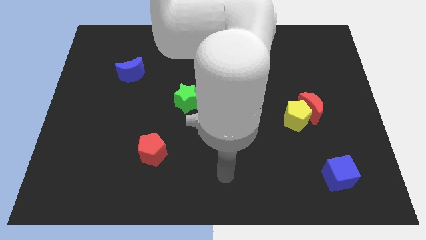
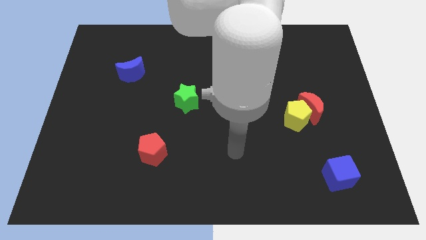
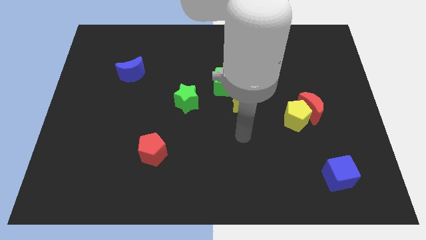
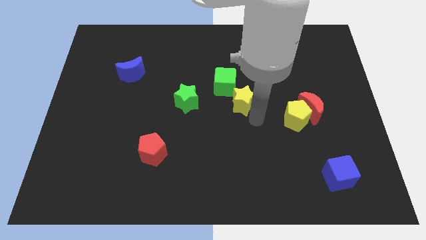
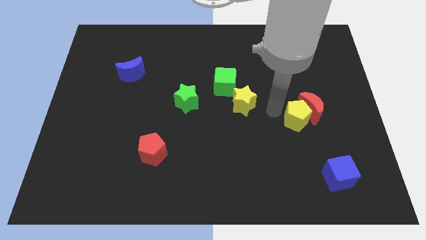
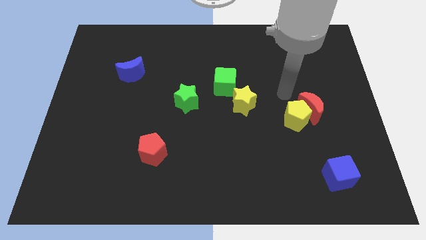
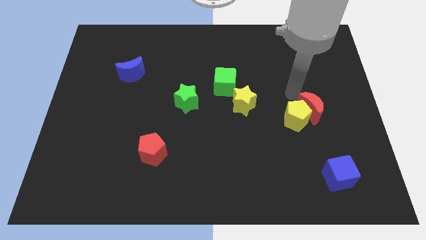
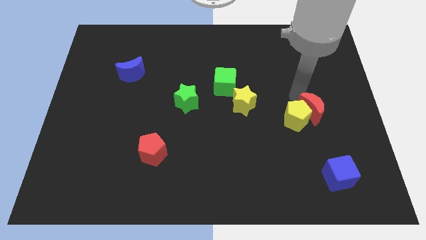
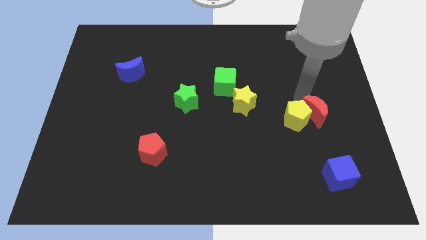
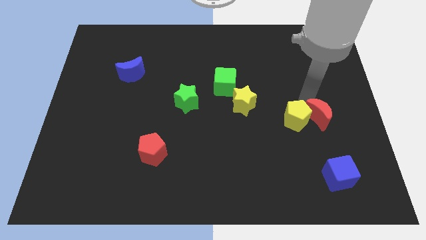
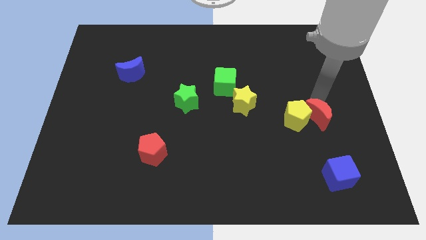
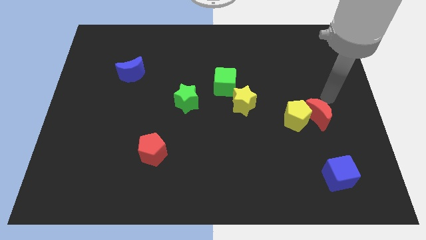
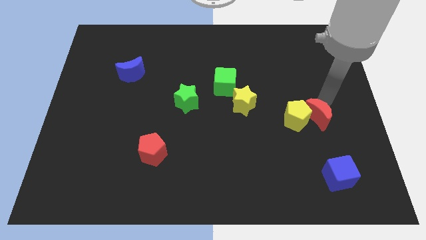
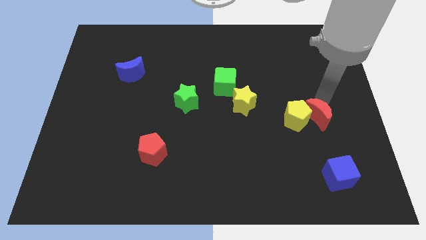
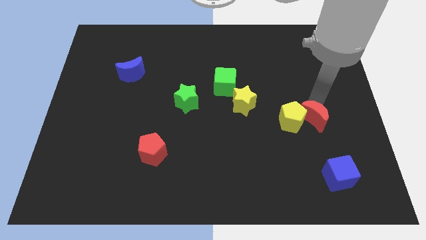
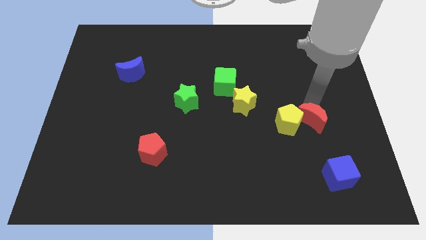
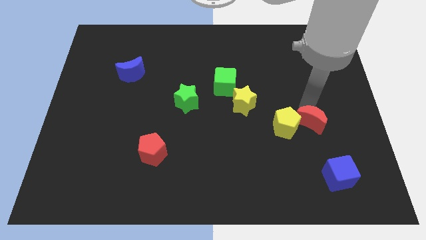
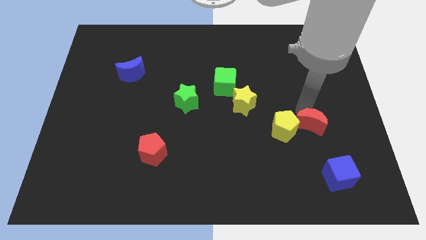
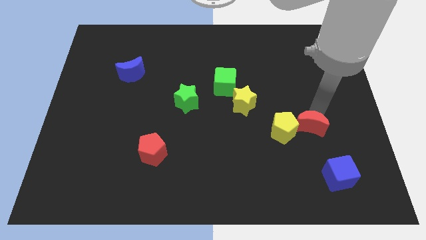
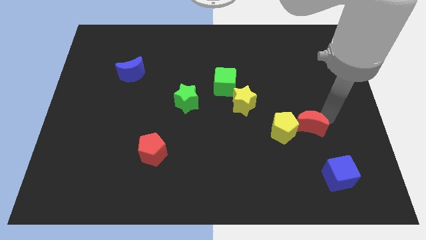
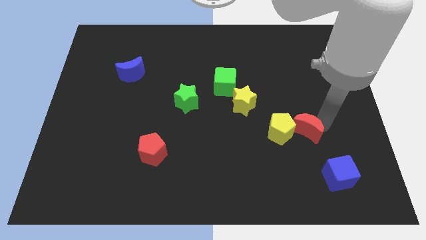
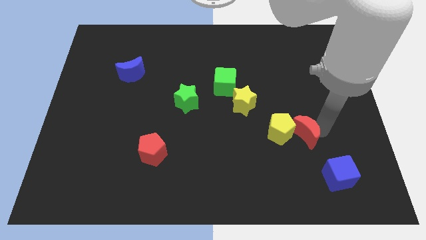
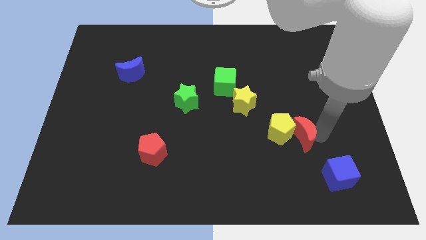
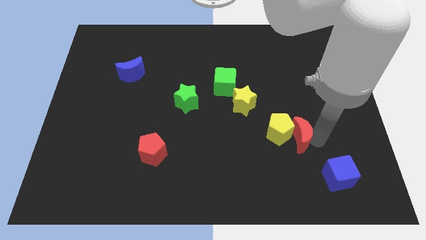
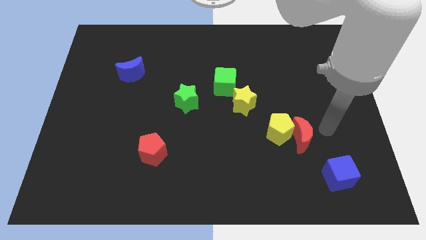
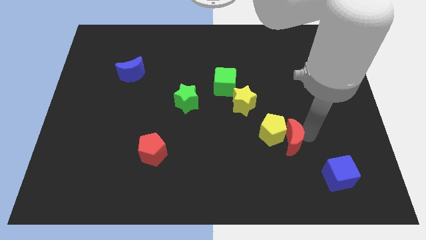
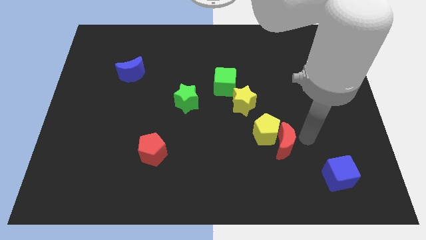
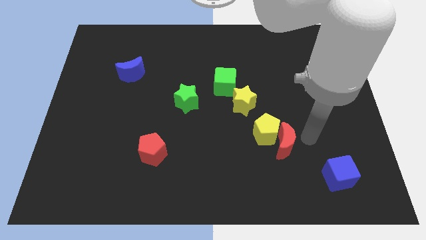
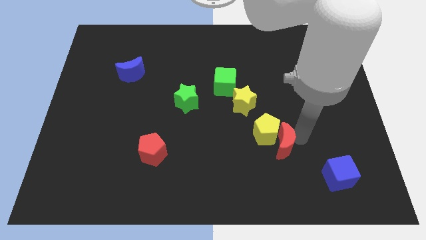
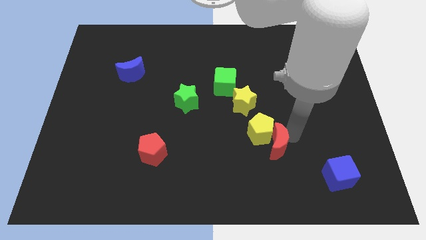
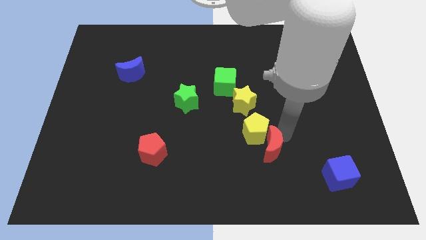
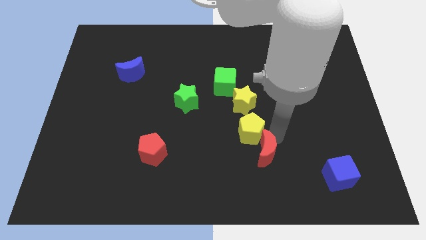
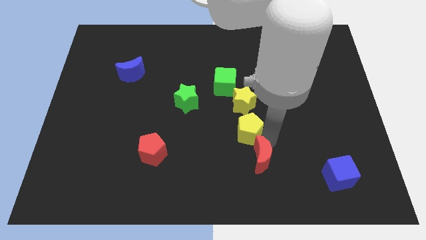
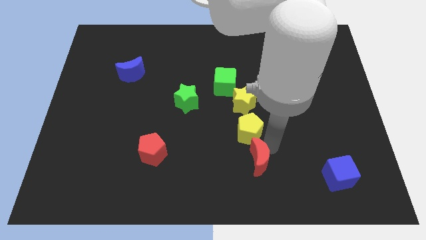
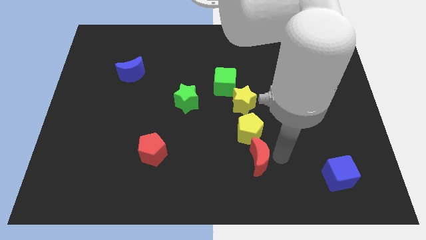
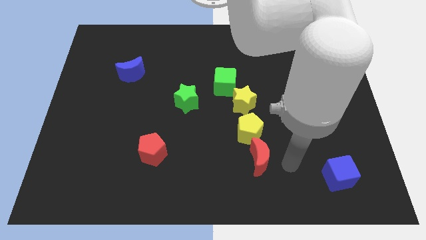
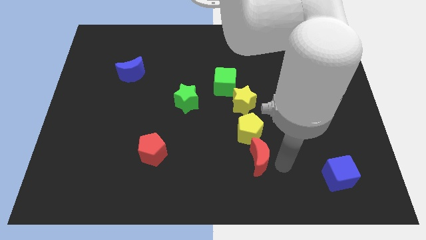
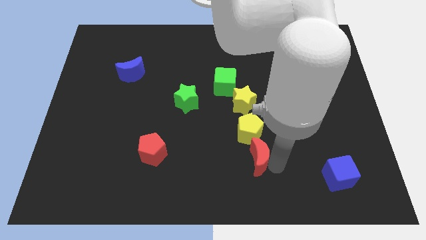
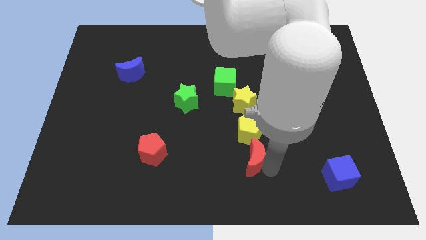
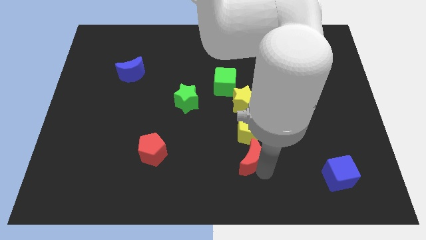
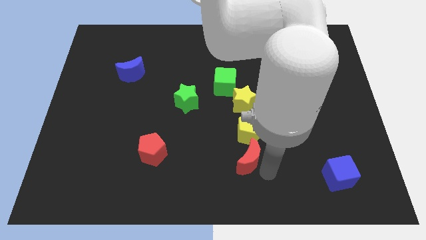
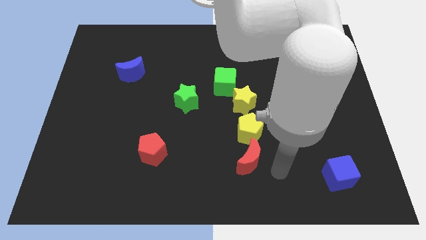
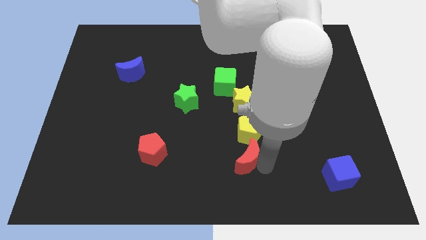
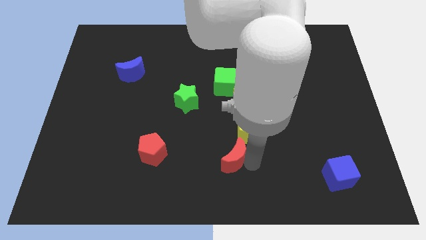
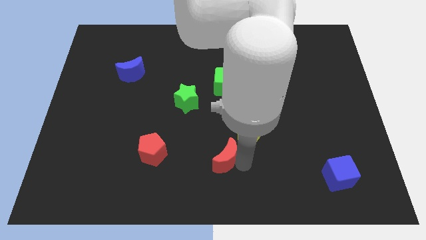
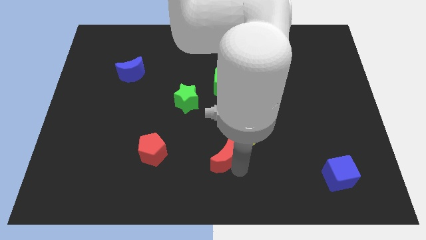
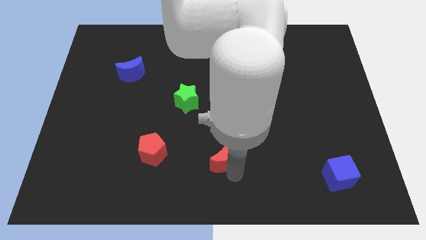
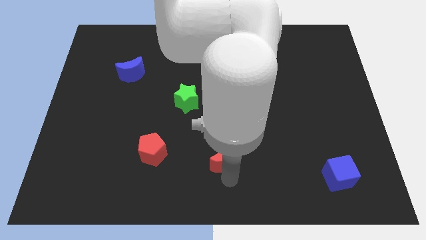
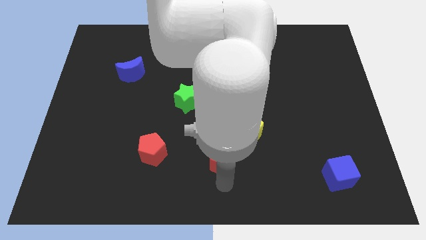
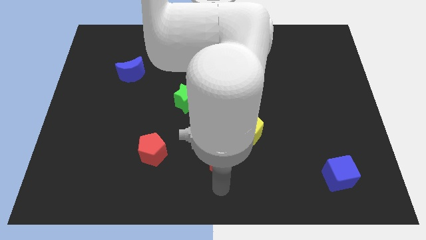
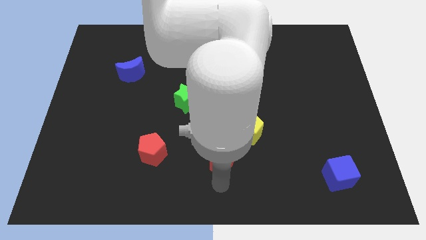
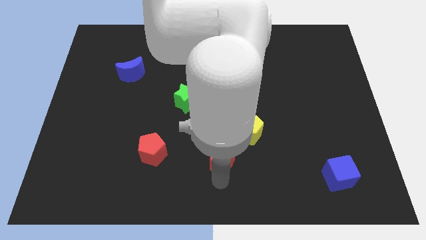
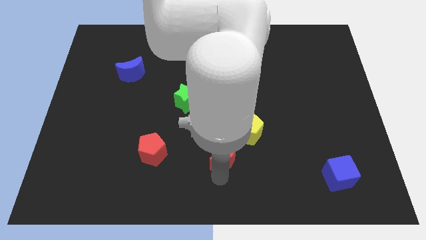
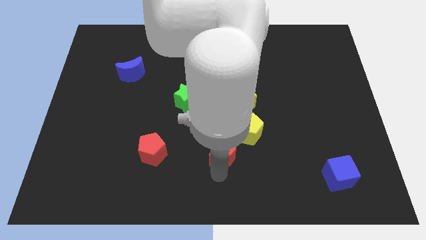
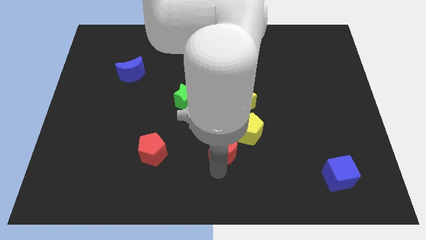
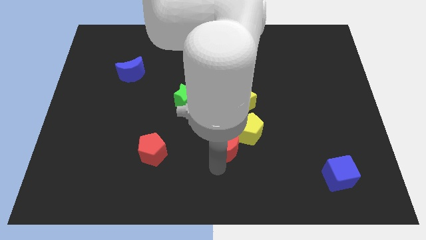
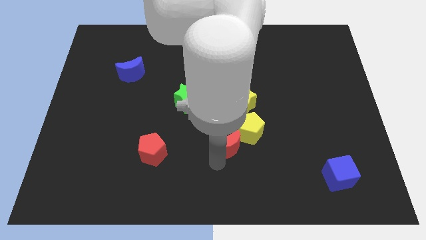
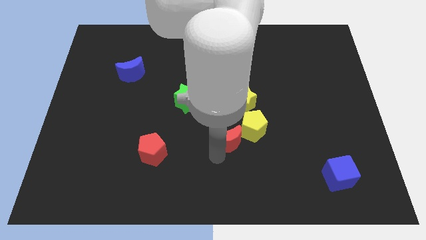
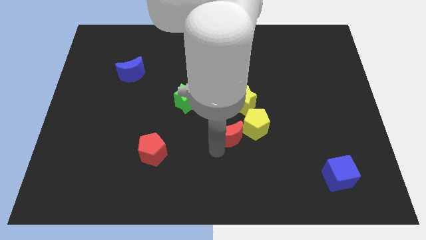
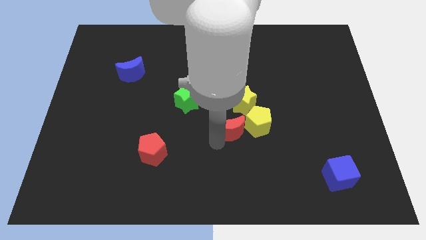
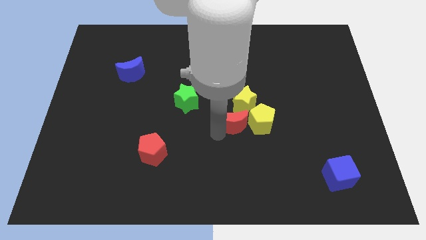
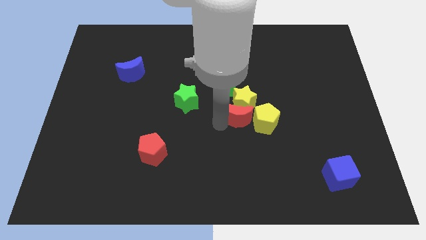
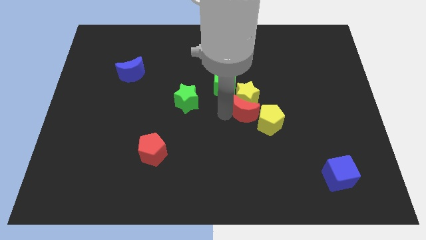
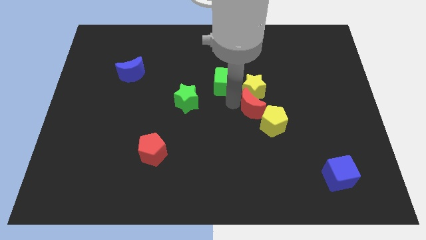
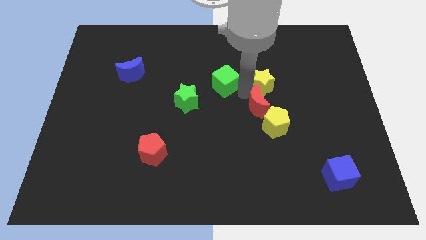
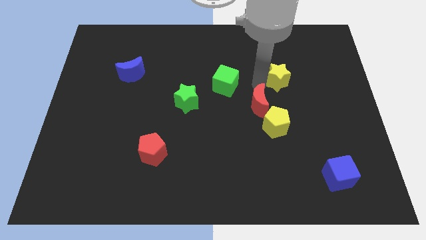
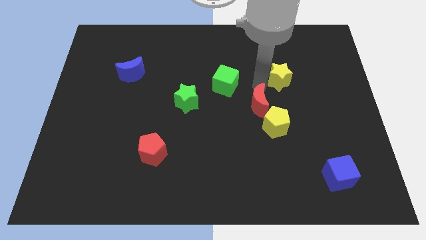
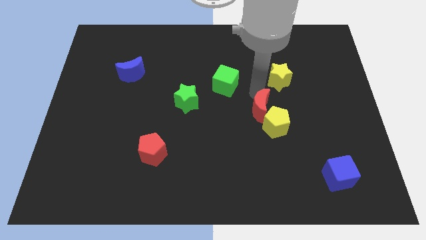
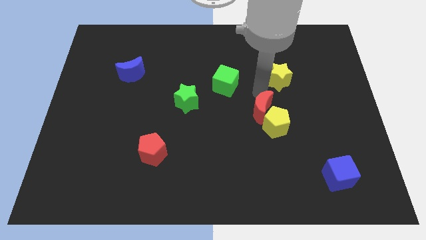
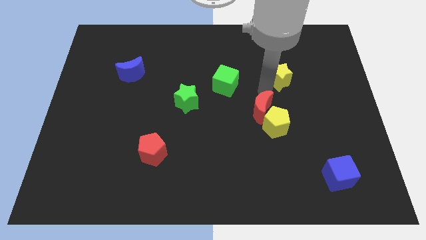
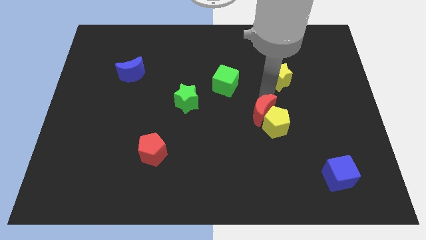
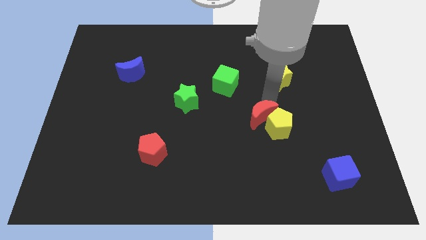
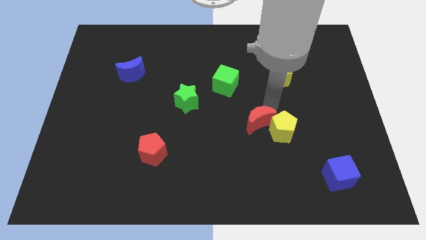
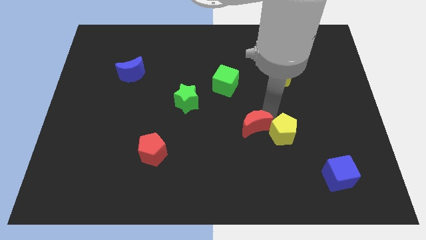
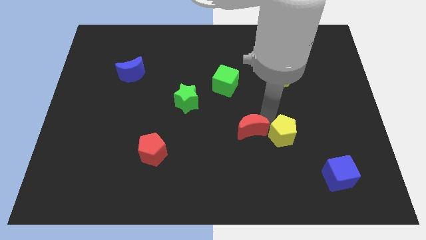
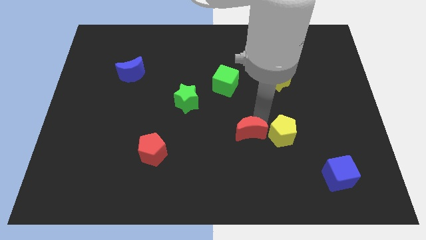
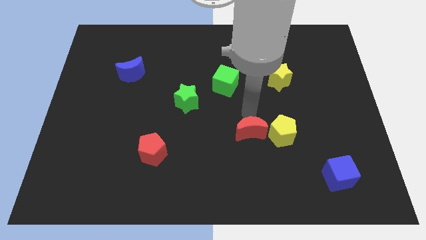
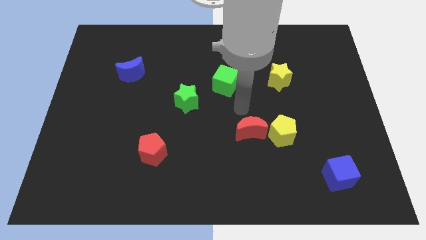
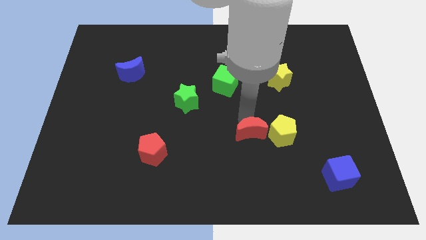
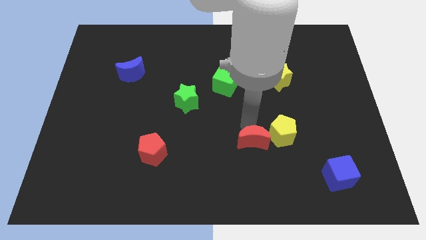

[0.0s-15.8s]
push the red moon to the bottom left of the yellow pentagon
